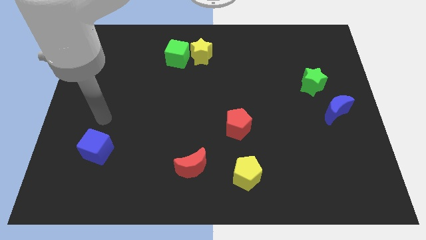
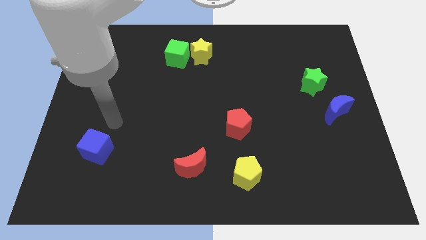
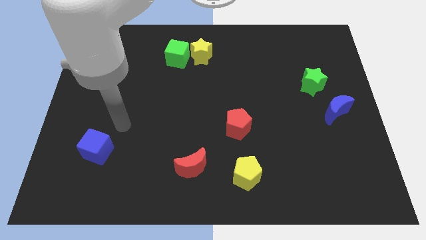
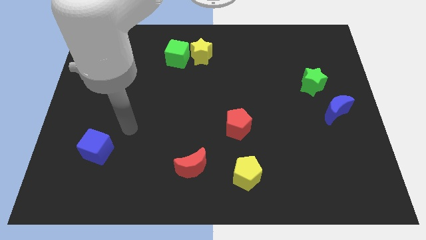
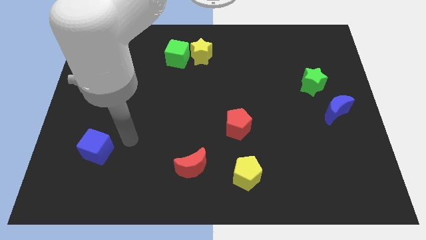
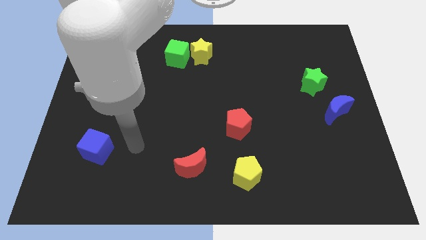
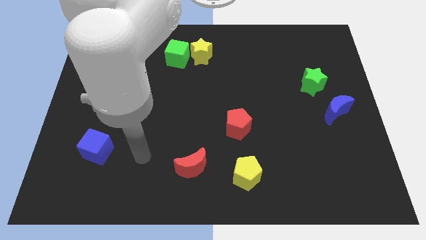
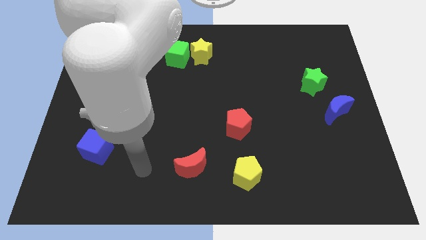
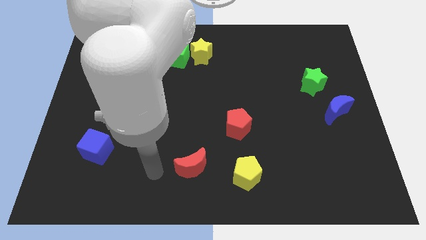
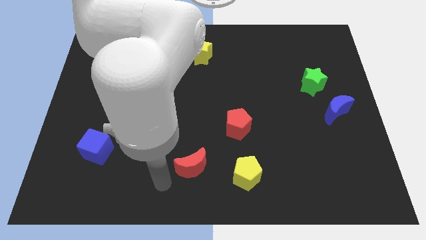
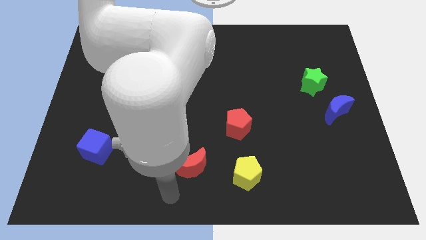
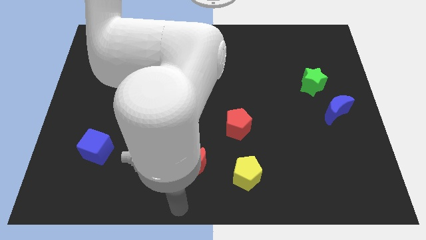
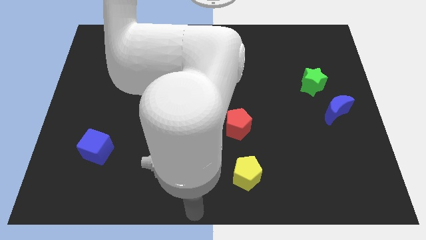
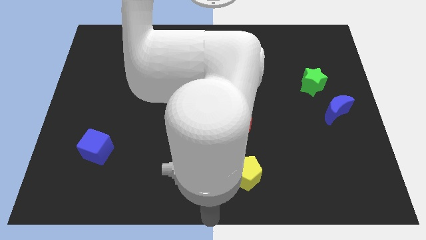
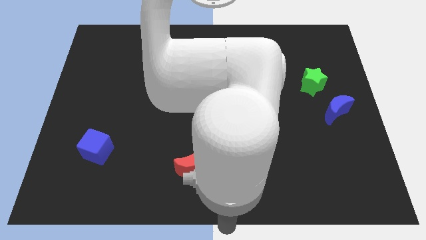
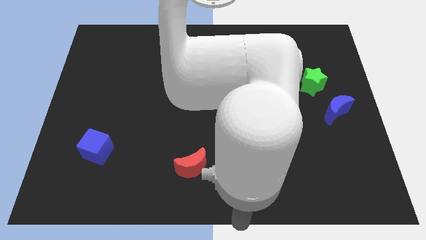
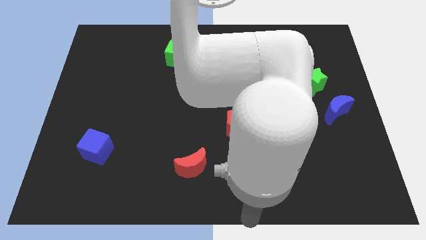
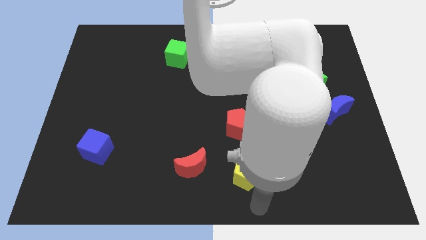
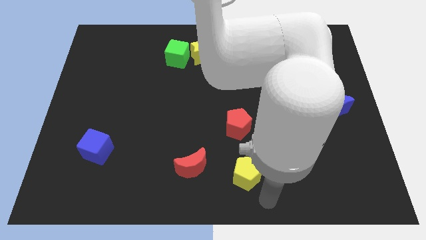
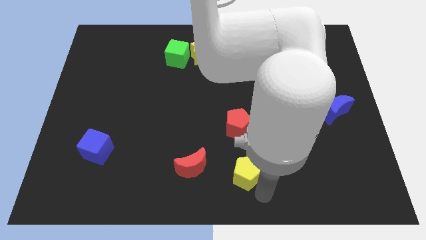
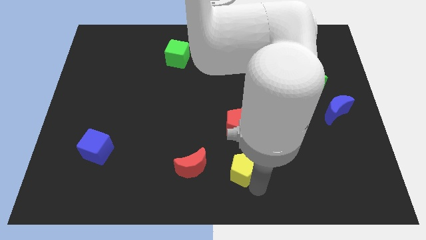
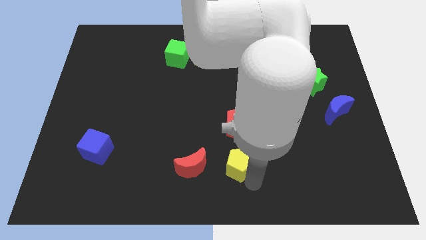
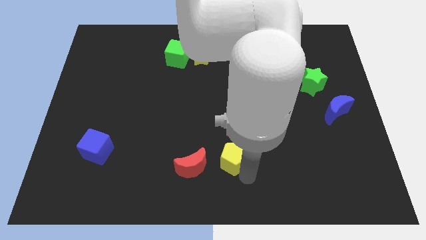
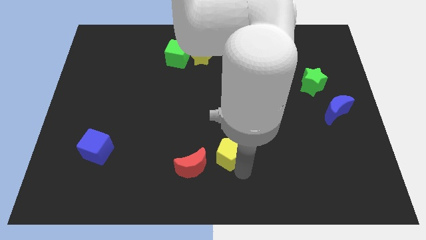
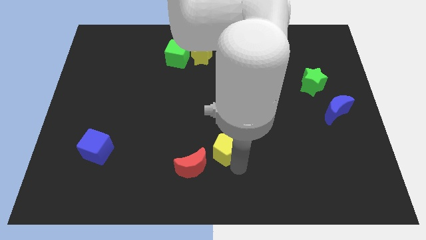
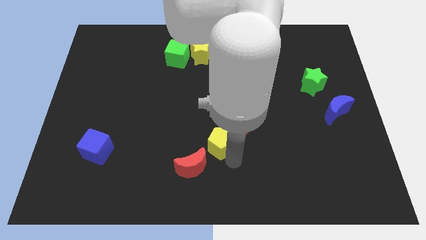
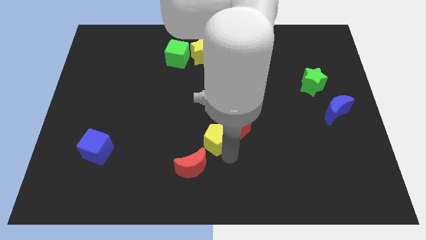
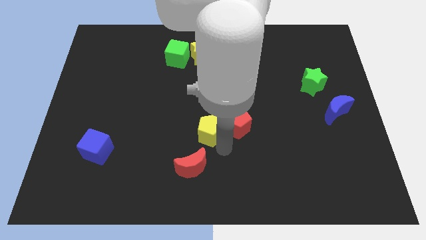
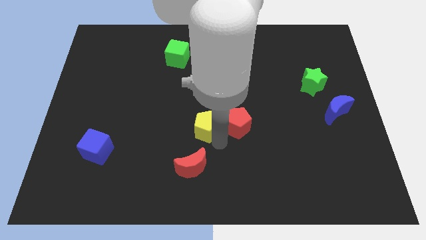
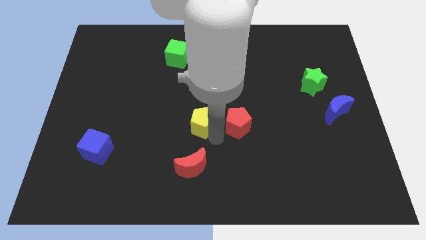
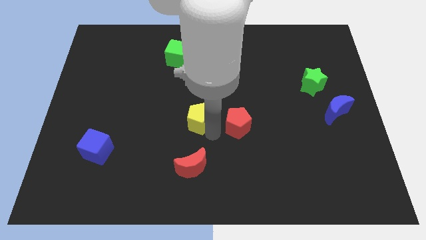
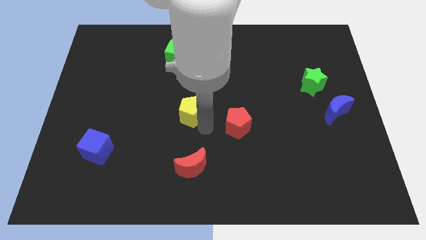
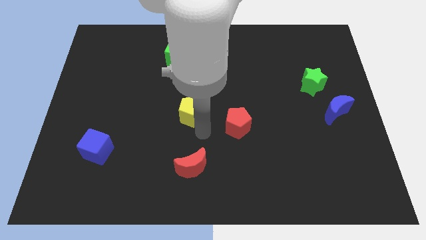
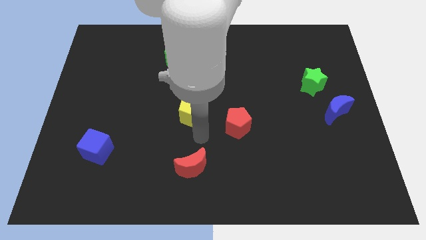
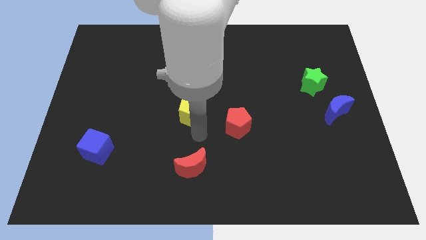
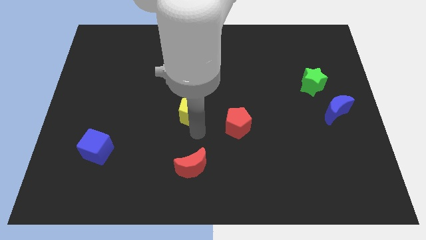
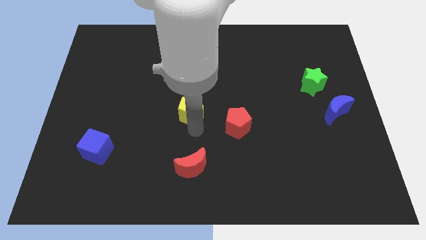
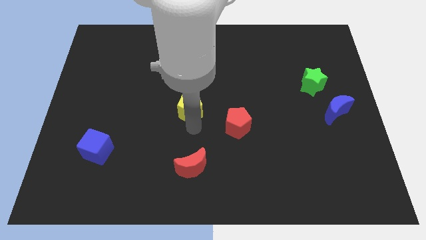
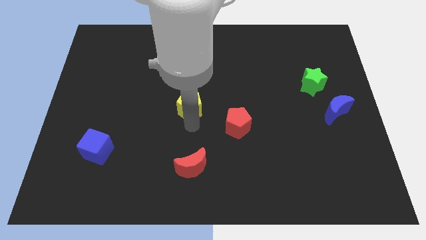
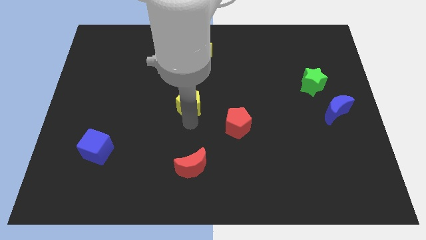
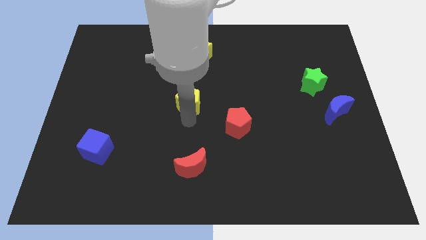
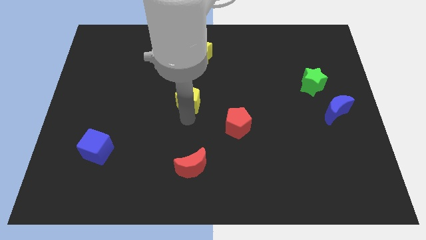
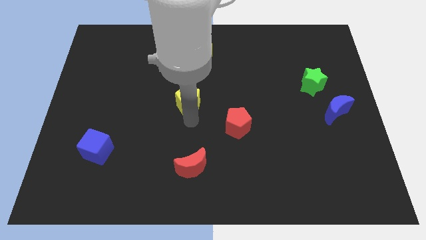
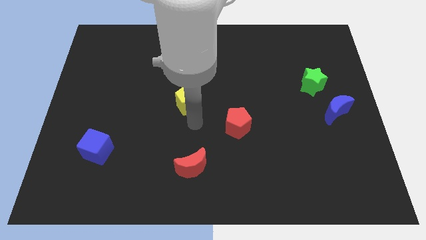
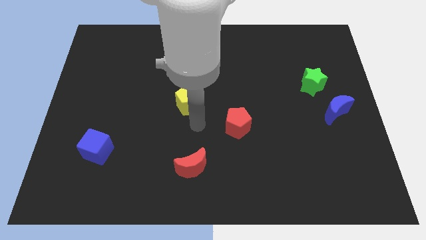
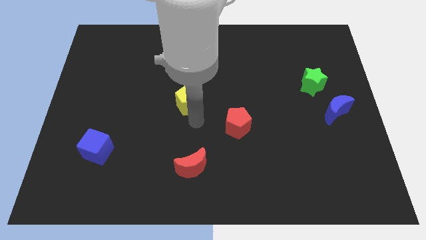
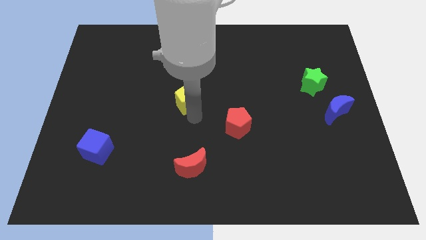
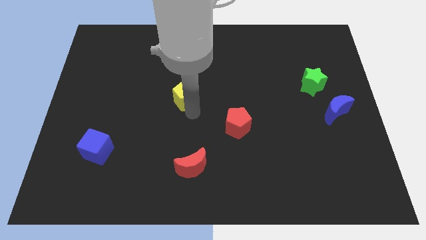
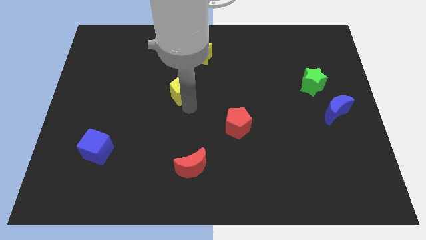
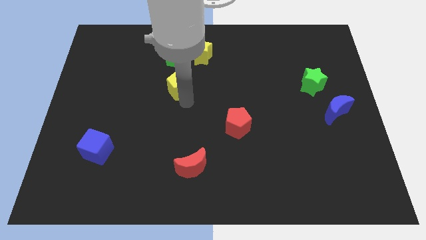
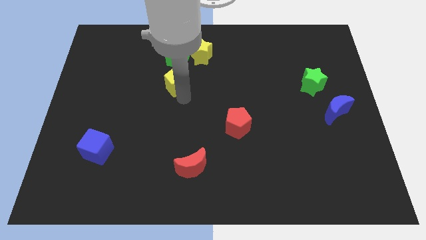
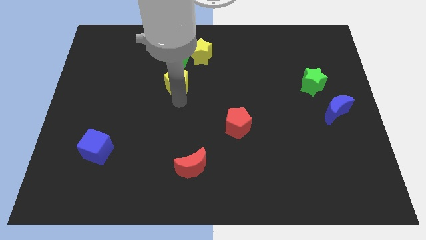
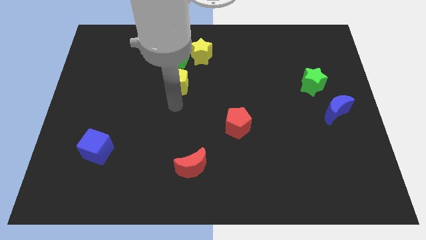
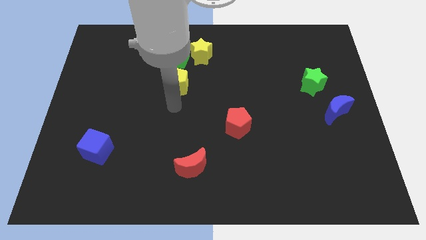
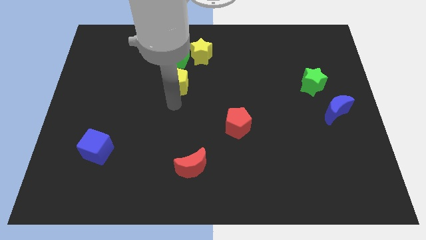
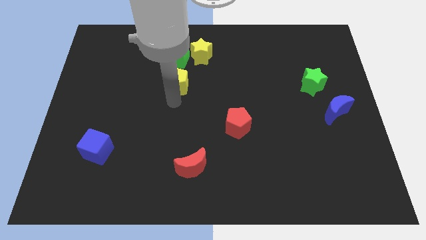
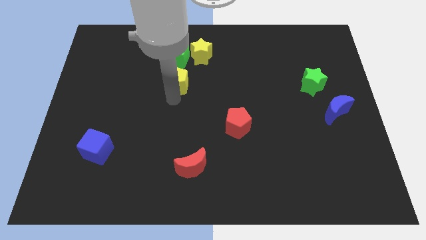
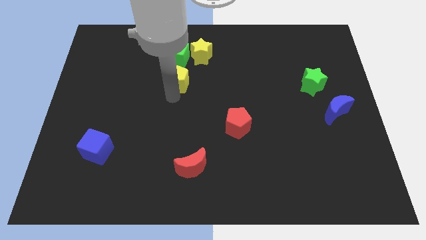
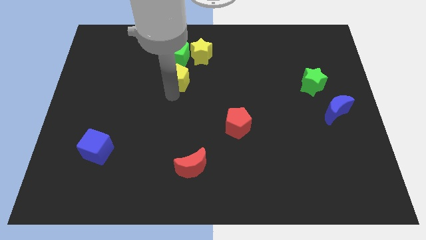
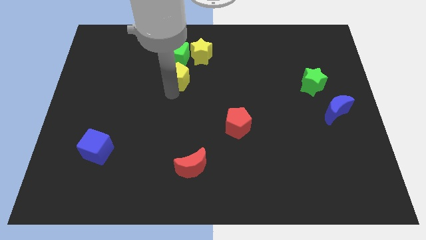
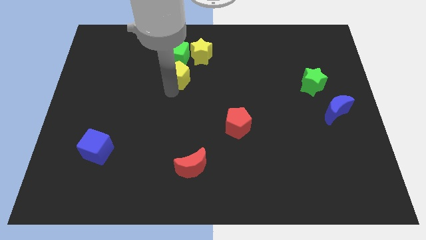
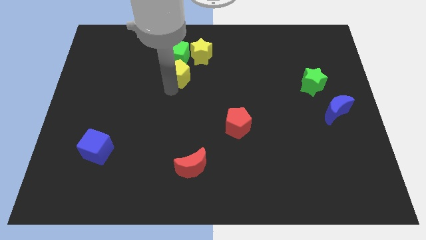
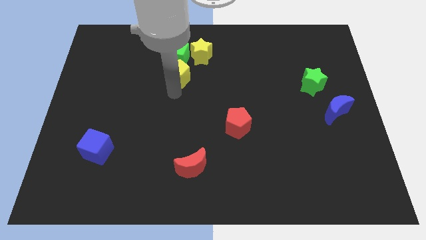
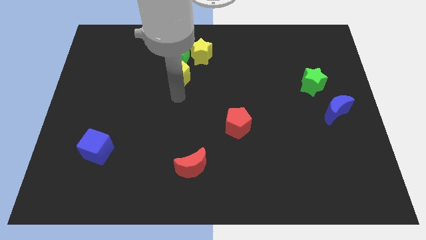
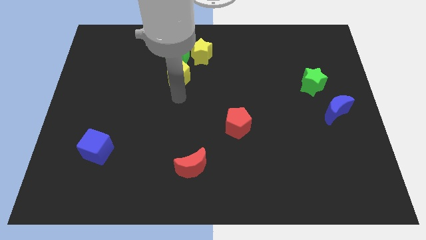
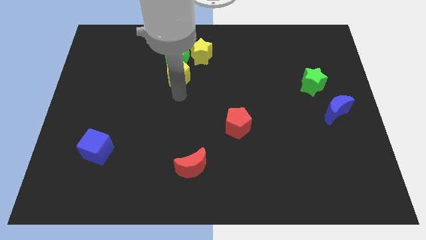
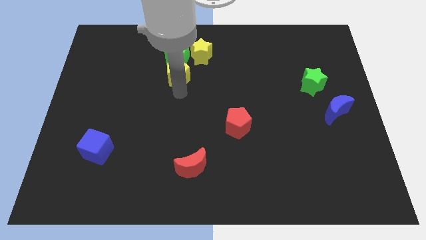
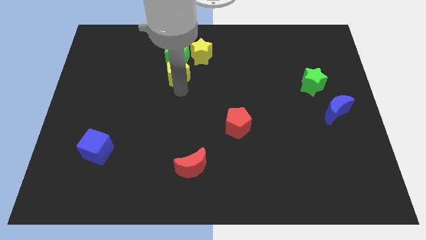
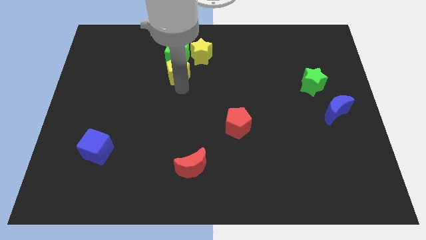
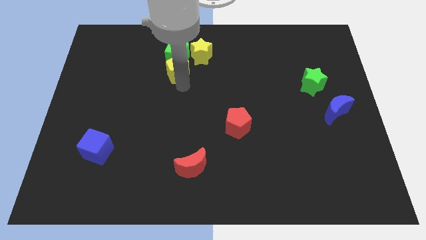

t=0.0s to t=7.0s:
put the yellow pentagon next to the green cube

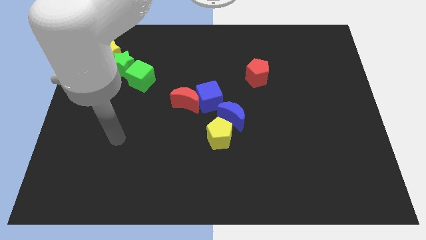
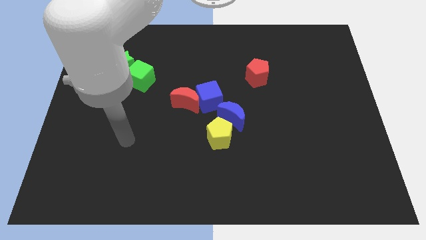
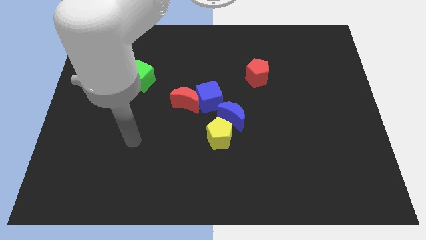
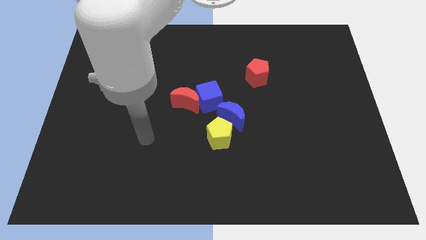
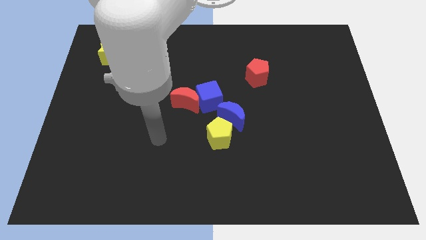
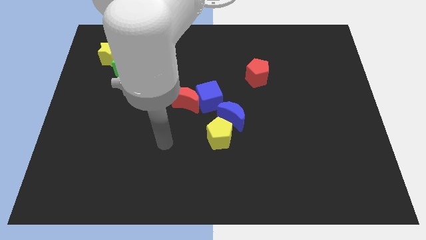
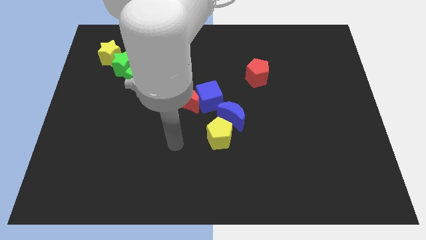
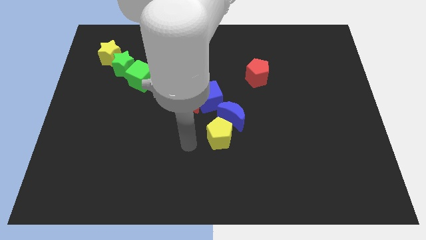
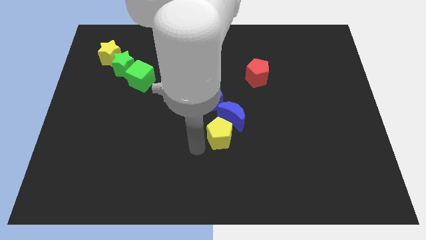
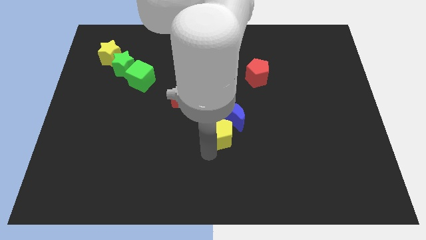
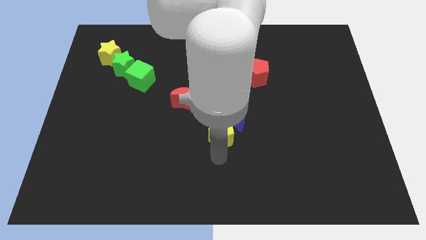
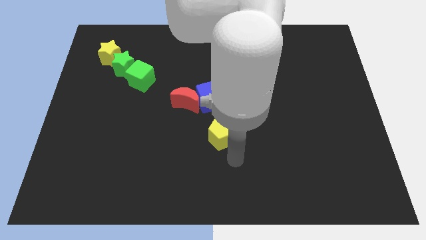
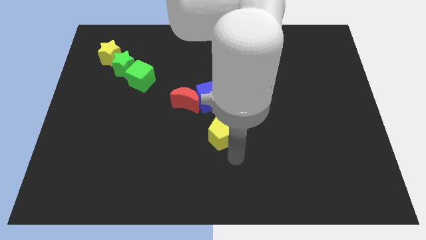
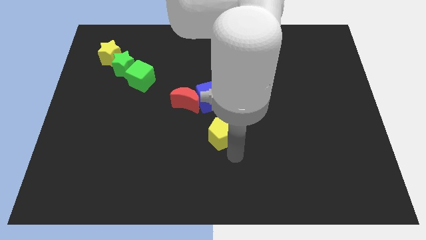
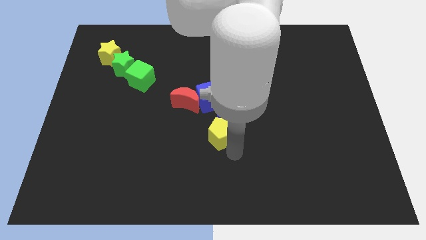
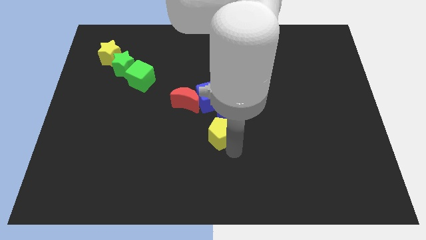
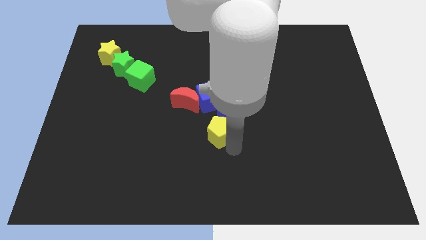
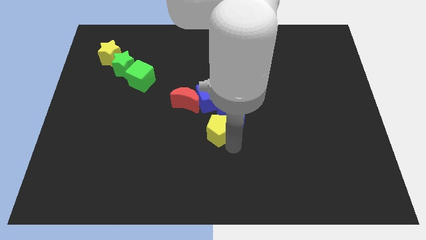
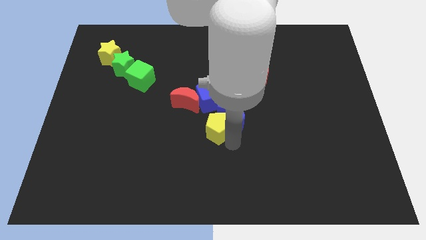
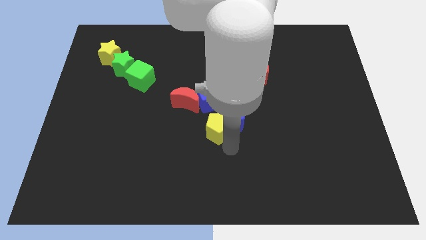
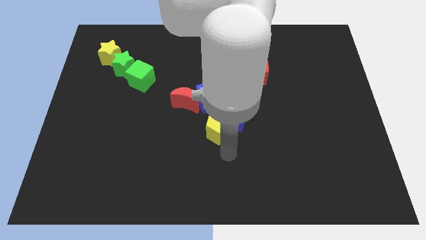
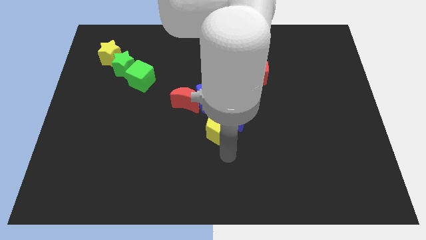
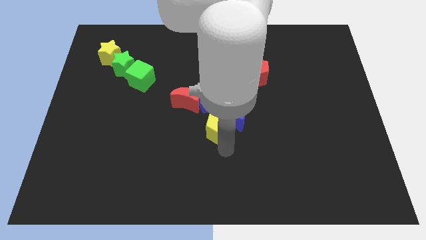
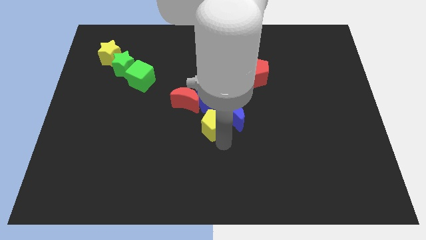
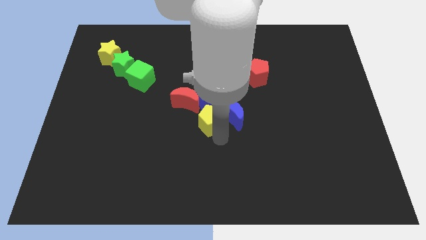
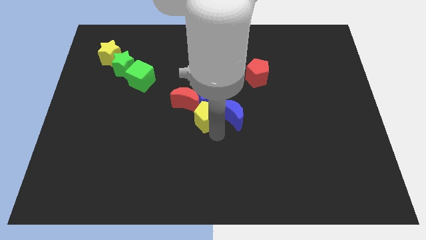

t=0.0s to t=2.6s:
push the yellow pentagon close to the blue cube
